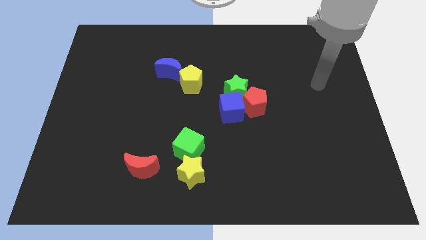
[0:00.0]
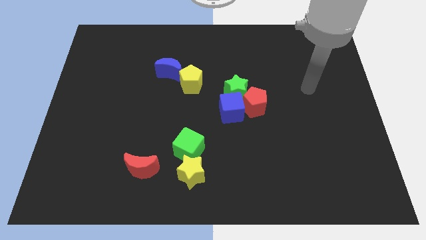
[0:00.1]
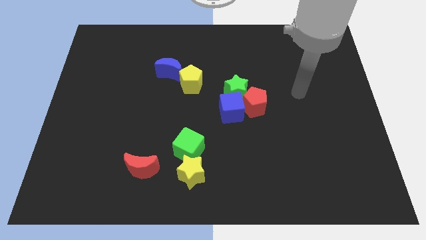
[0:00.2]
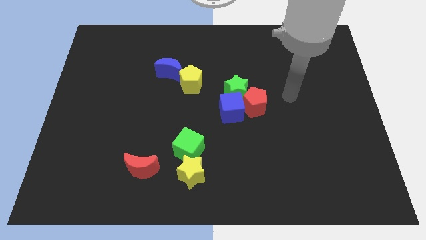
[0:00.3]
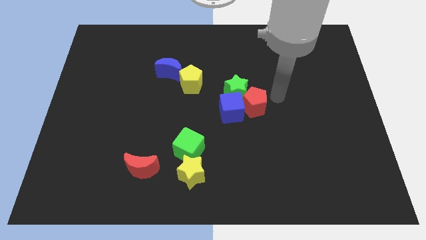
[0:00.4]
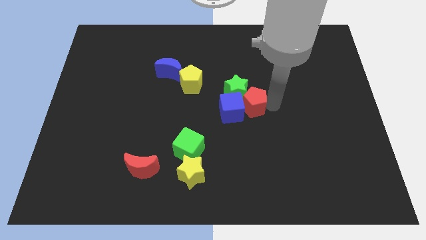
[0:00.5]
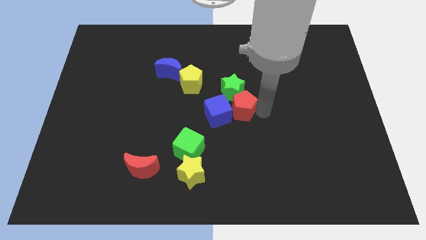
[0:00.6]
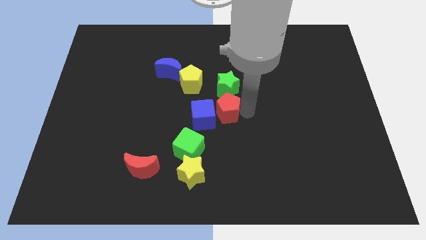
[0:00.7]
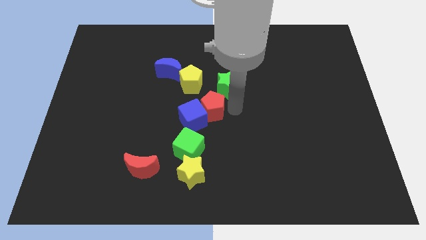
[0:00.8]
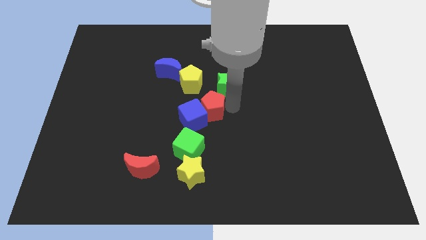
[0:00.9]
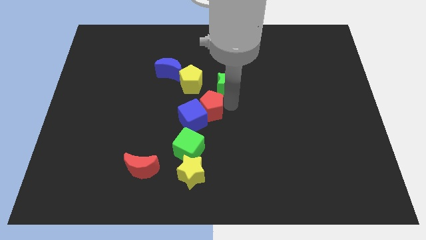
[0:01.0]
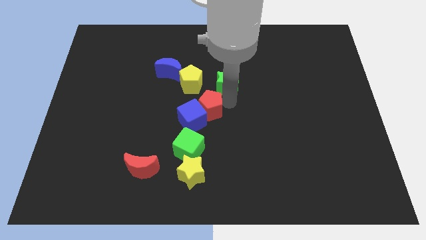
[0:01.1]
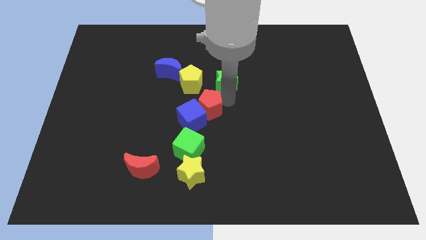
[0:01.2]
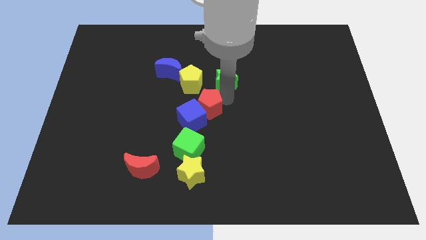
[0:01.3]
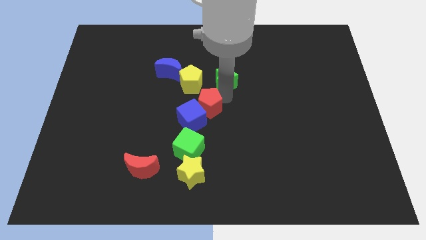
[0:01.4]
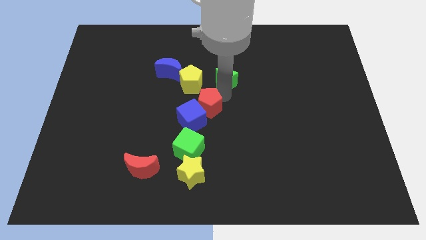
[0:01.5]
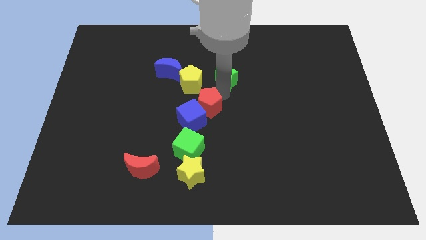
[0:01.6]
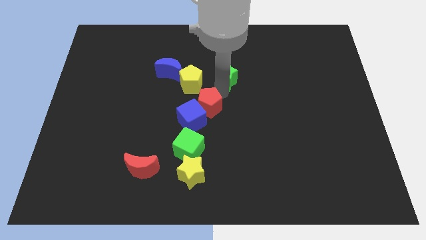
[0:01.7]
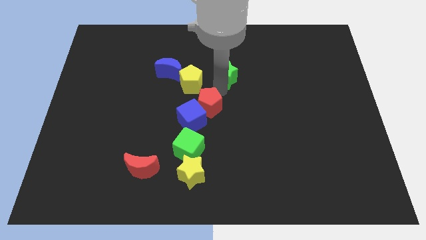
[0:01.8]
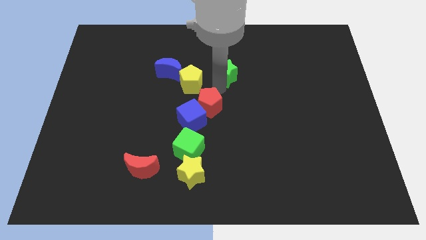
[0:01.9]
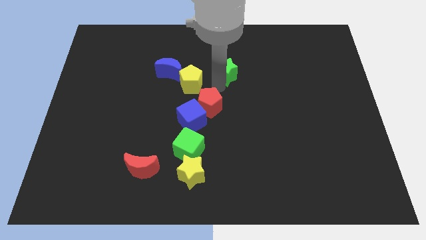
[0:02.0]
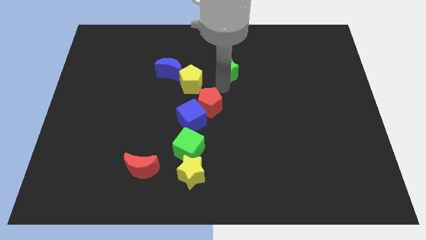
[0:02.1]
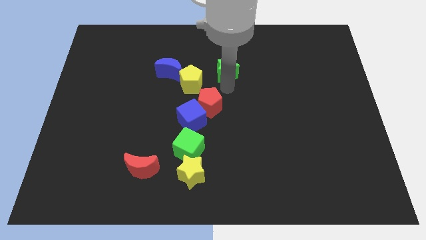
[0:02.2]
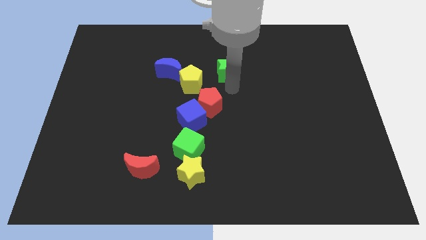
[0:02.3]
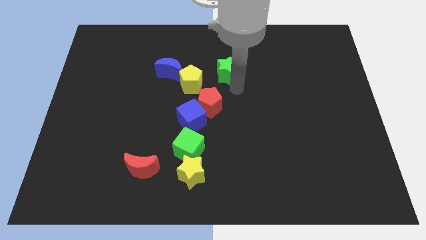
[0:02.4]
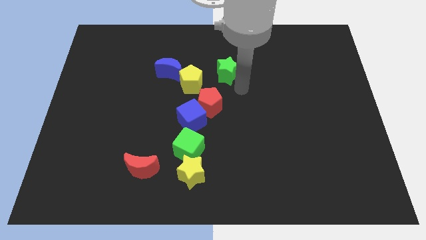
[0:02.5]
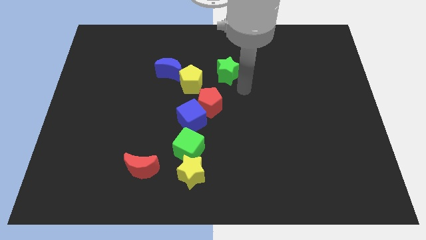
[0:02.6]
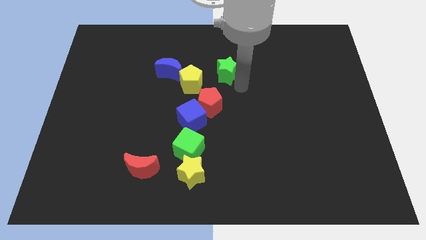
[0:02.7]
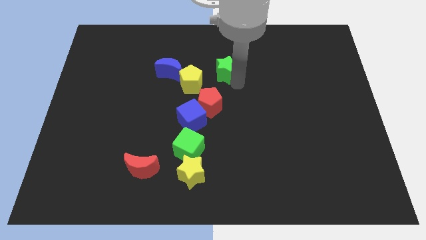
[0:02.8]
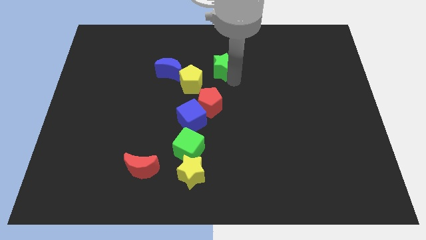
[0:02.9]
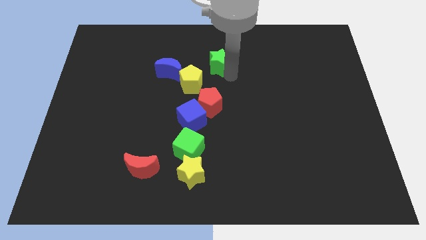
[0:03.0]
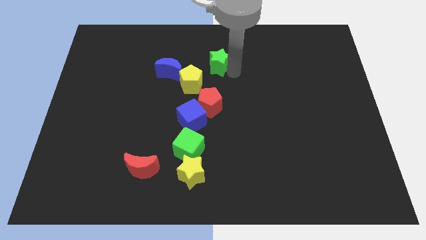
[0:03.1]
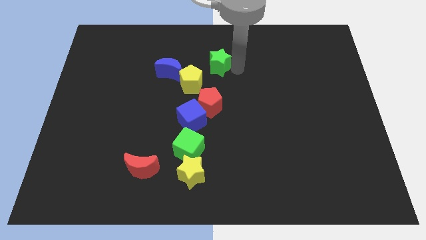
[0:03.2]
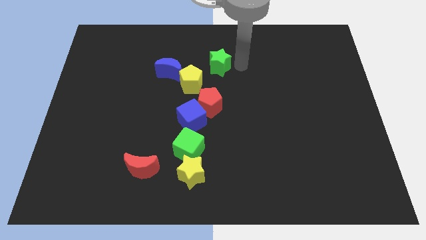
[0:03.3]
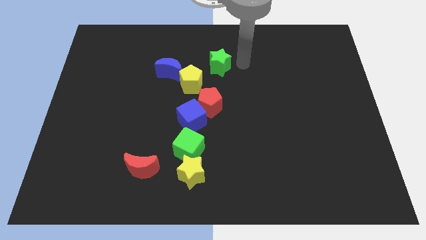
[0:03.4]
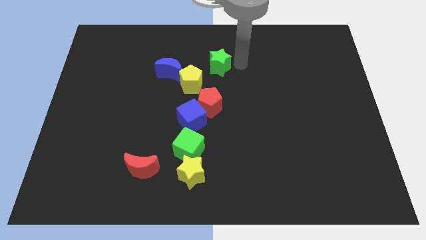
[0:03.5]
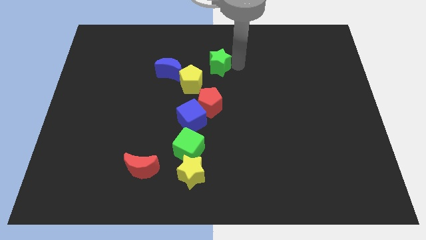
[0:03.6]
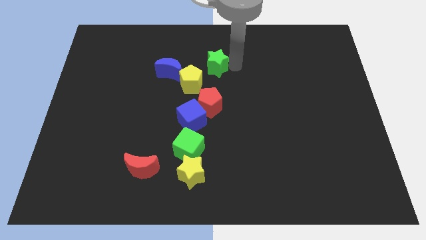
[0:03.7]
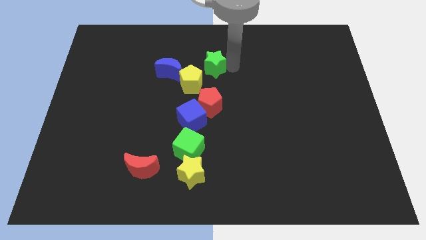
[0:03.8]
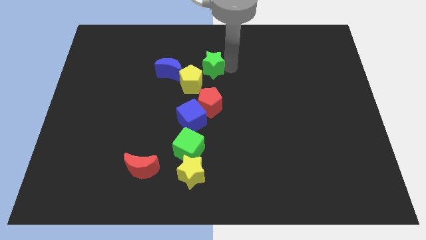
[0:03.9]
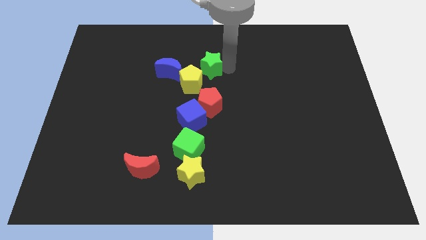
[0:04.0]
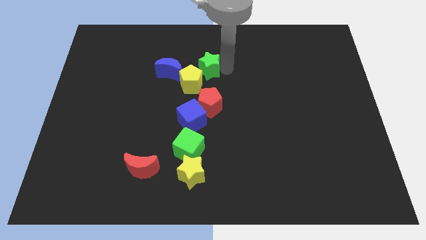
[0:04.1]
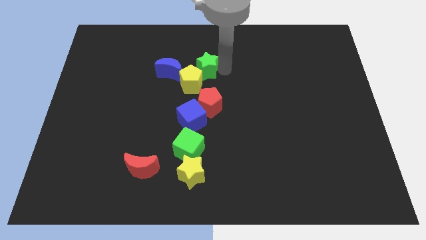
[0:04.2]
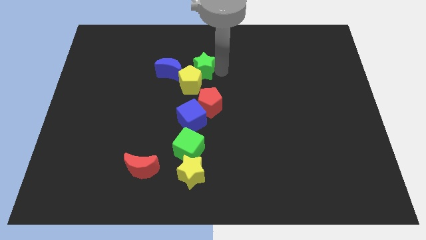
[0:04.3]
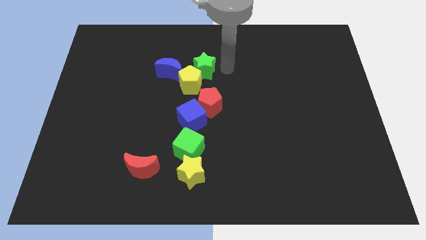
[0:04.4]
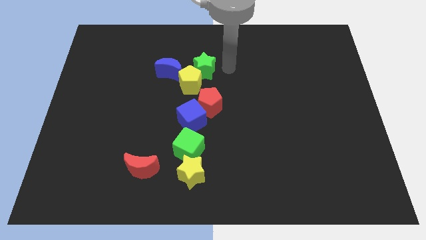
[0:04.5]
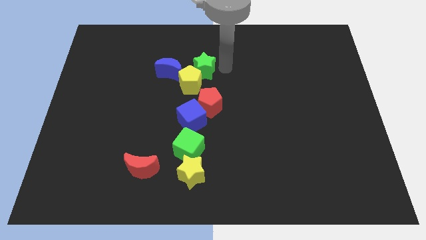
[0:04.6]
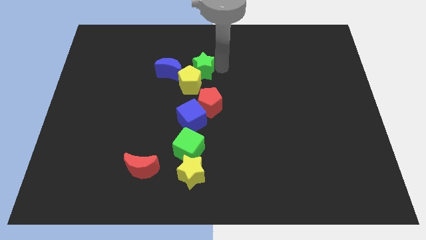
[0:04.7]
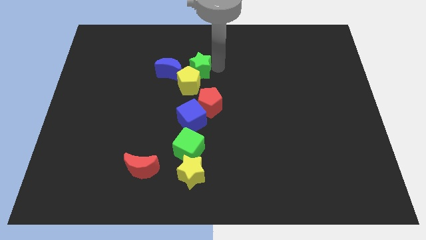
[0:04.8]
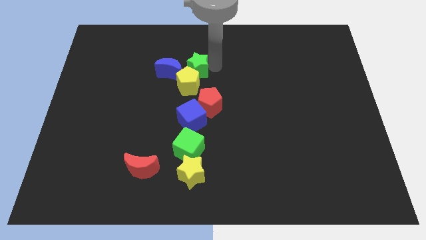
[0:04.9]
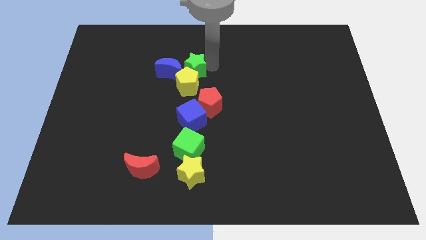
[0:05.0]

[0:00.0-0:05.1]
slide the green star to the blue moon

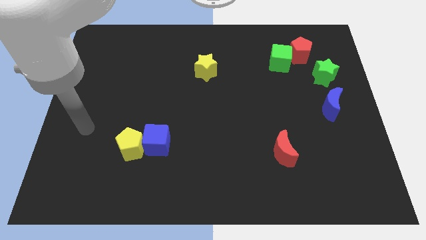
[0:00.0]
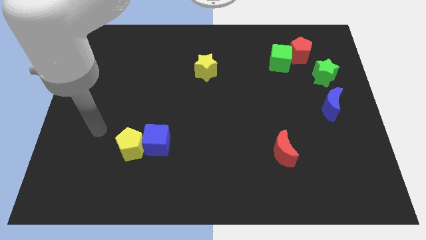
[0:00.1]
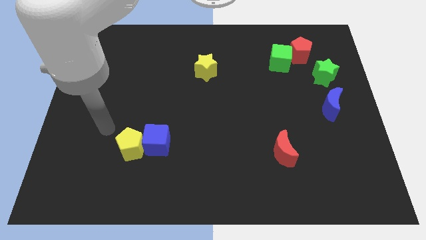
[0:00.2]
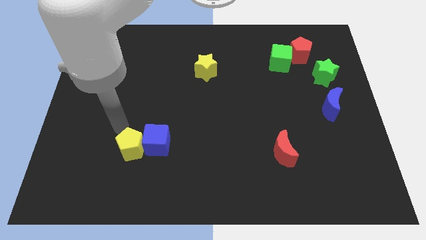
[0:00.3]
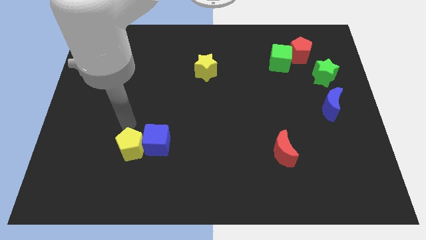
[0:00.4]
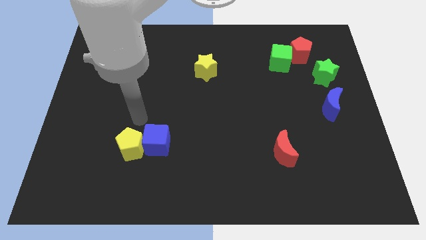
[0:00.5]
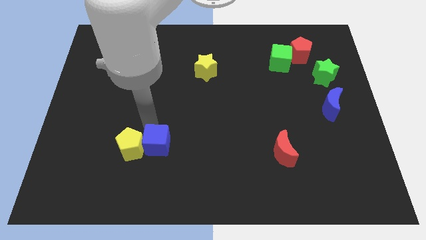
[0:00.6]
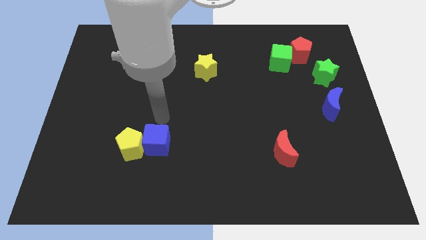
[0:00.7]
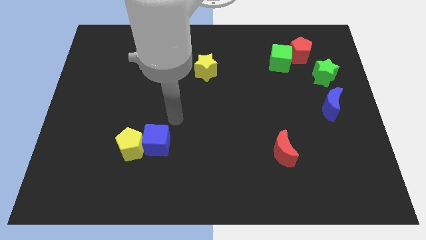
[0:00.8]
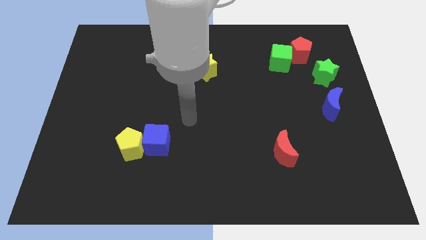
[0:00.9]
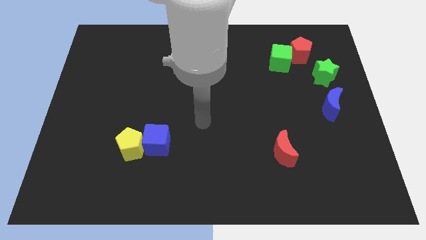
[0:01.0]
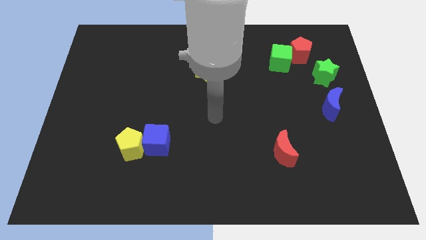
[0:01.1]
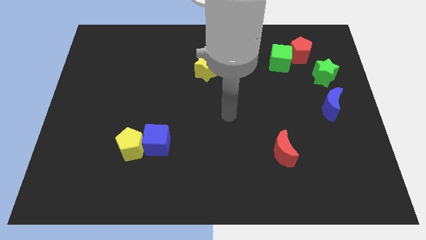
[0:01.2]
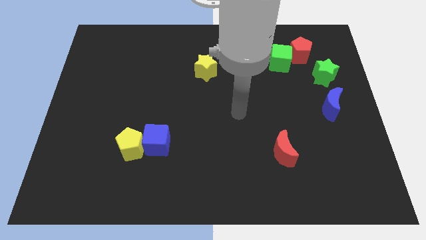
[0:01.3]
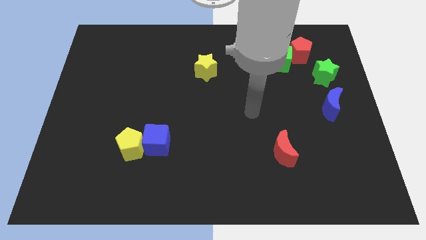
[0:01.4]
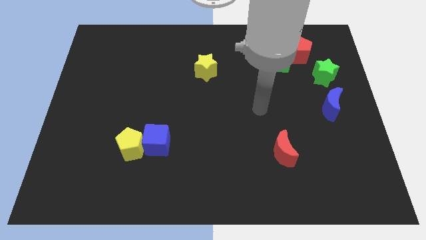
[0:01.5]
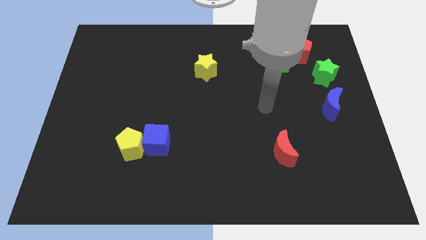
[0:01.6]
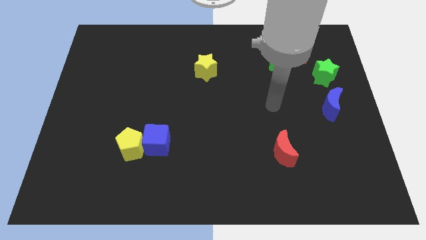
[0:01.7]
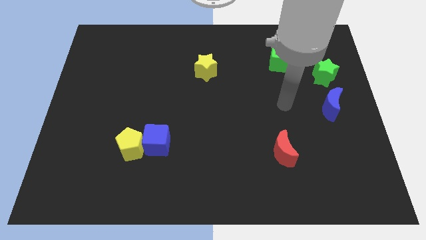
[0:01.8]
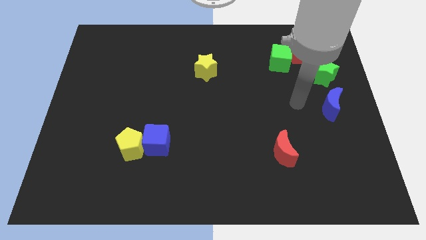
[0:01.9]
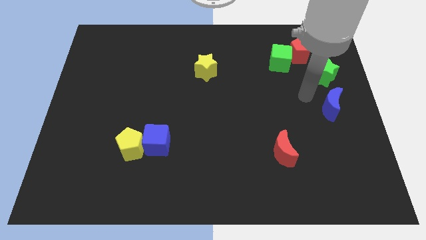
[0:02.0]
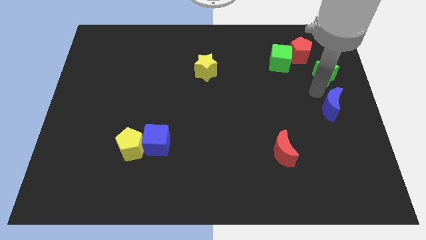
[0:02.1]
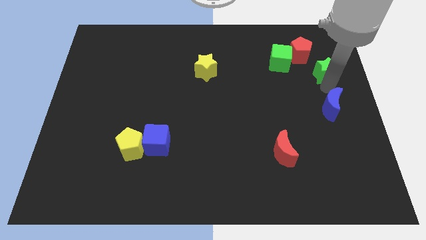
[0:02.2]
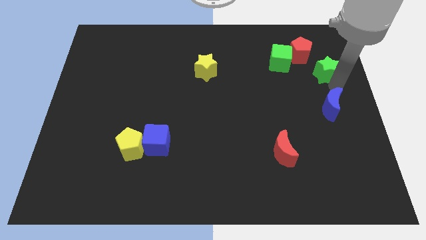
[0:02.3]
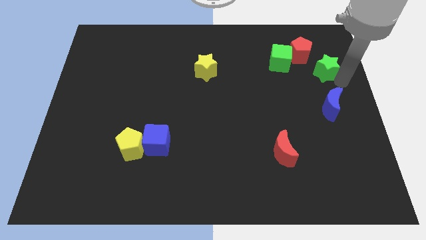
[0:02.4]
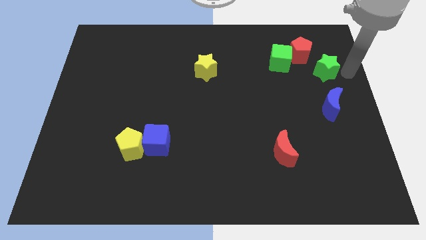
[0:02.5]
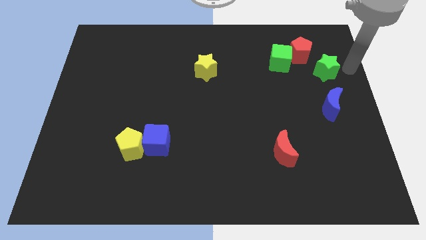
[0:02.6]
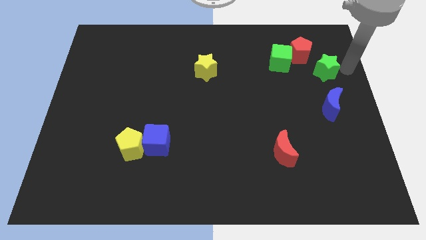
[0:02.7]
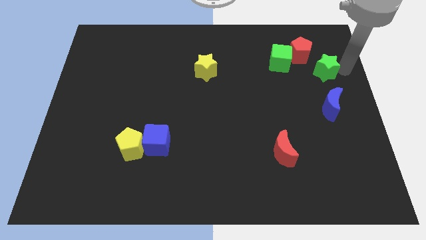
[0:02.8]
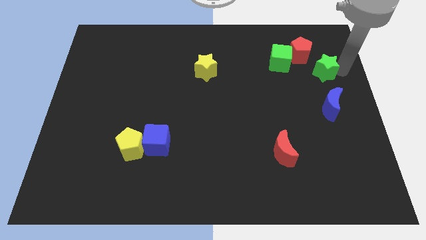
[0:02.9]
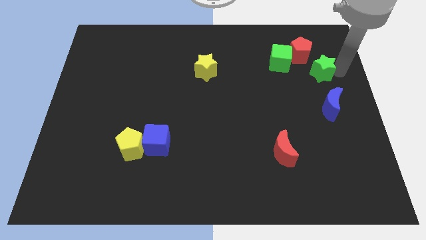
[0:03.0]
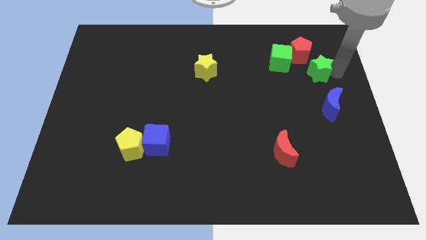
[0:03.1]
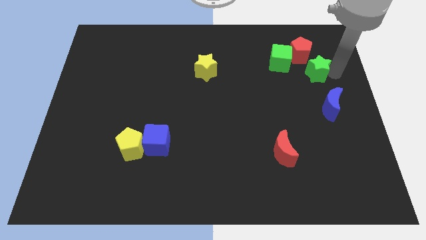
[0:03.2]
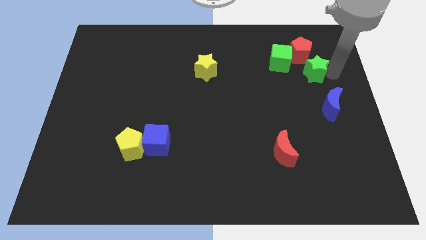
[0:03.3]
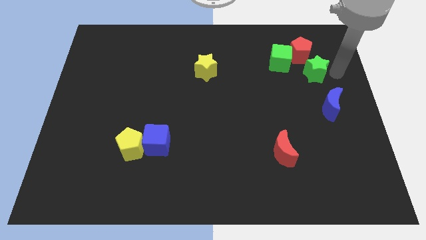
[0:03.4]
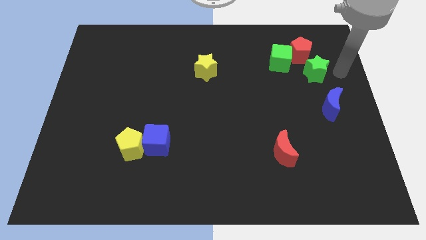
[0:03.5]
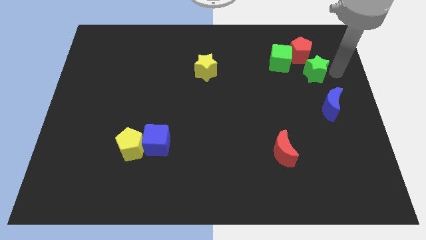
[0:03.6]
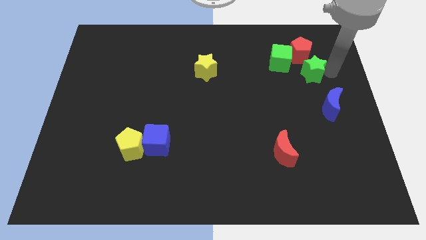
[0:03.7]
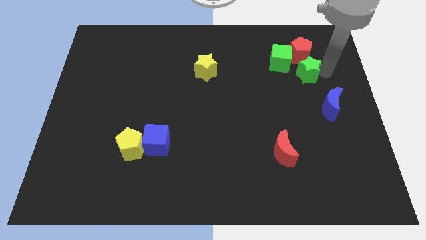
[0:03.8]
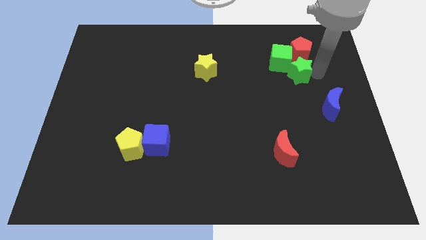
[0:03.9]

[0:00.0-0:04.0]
move the green star towards the green cube
